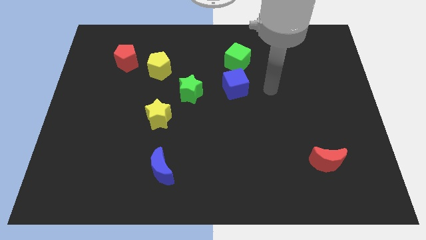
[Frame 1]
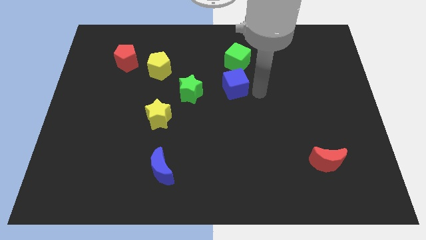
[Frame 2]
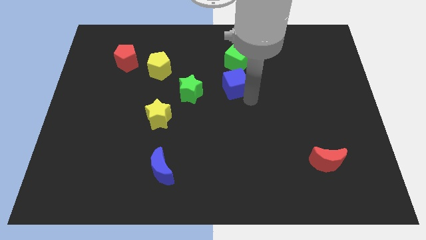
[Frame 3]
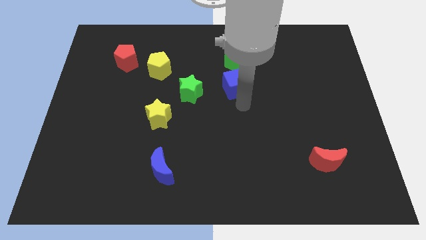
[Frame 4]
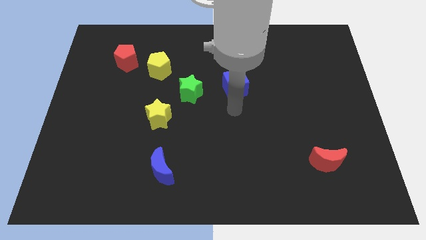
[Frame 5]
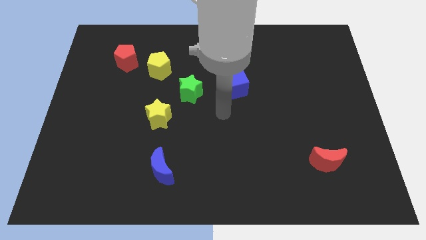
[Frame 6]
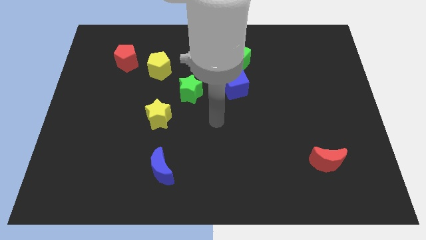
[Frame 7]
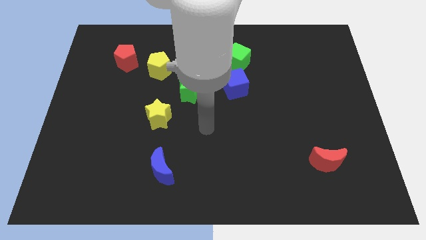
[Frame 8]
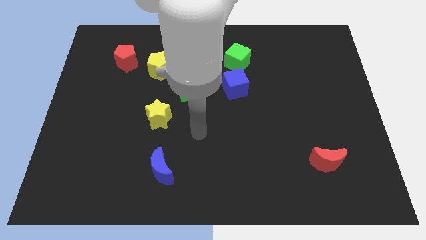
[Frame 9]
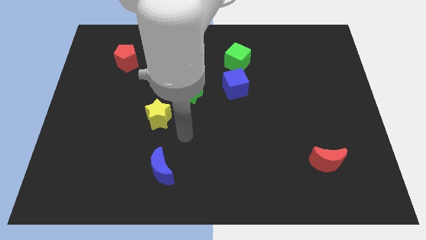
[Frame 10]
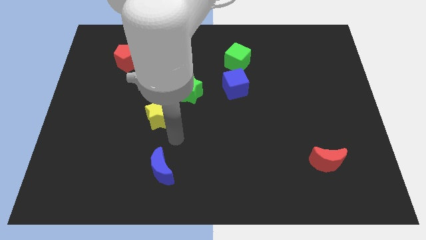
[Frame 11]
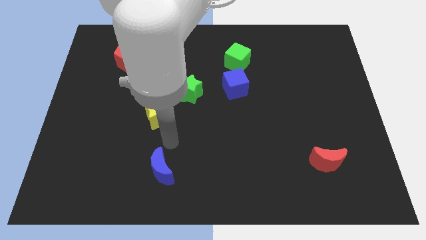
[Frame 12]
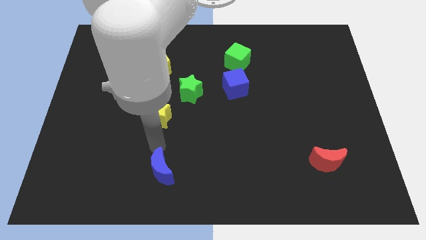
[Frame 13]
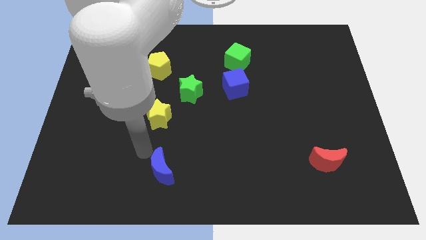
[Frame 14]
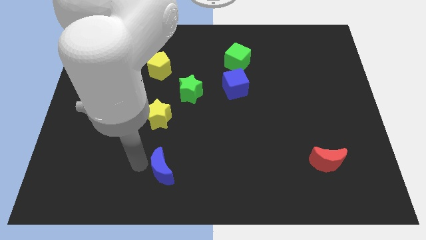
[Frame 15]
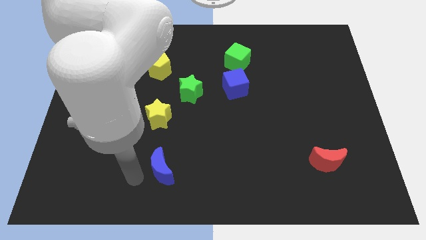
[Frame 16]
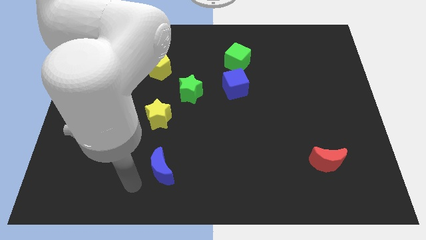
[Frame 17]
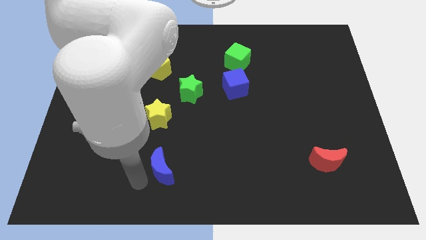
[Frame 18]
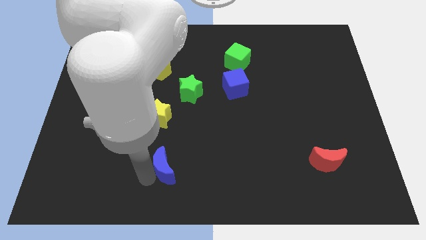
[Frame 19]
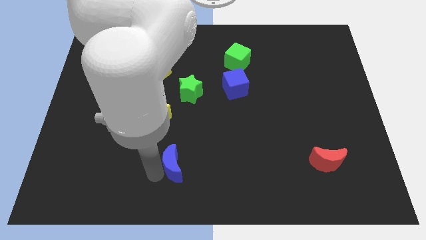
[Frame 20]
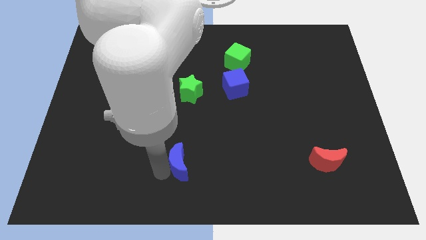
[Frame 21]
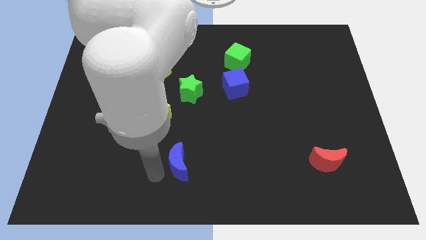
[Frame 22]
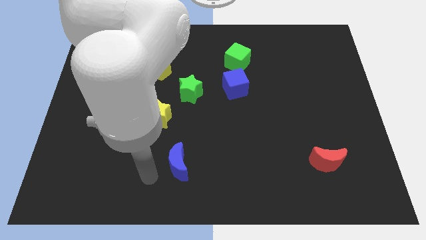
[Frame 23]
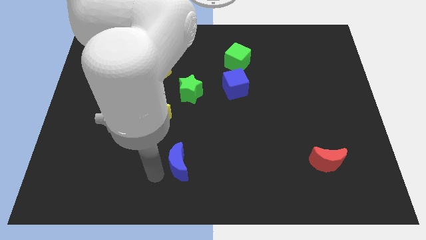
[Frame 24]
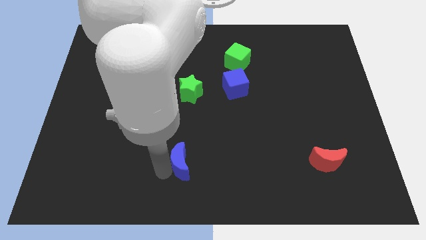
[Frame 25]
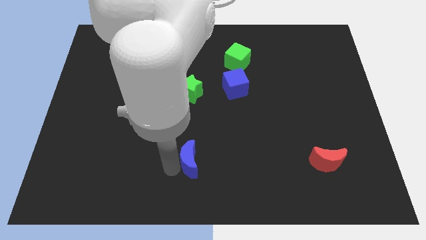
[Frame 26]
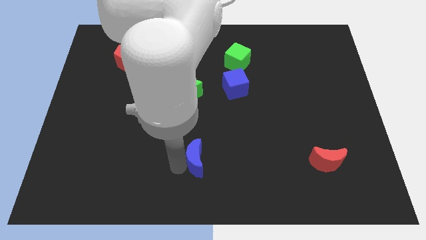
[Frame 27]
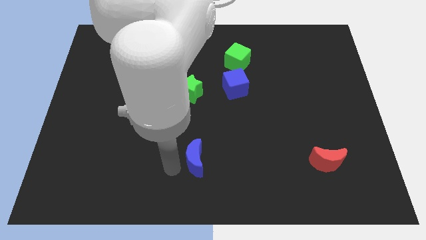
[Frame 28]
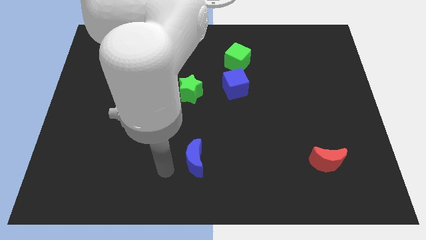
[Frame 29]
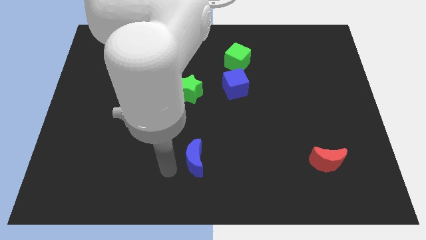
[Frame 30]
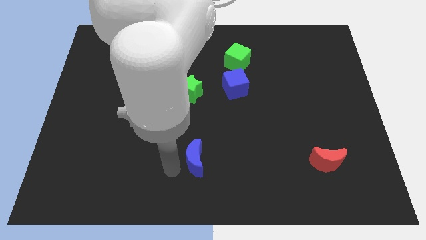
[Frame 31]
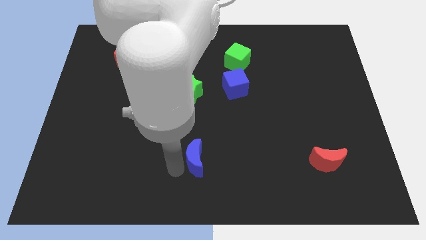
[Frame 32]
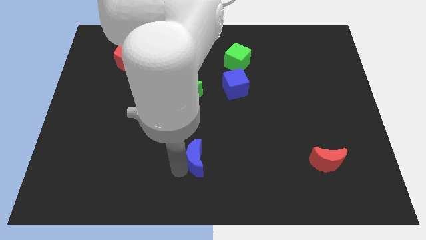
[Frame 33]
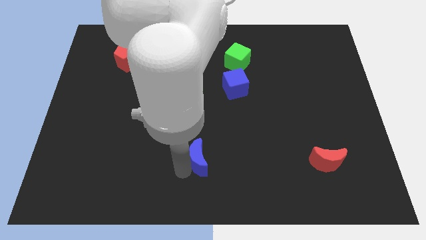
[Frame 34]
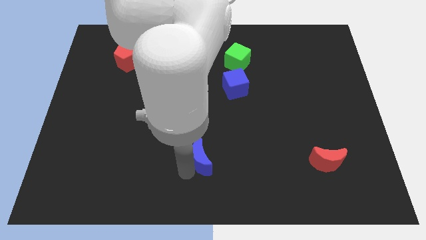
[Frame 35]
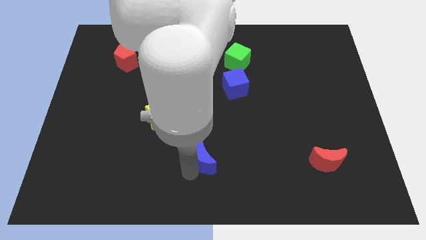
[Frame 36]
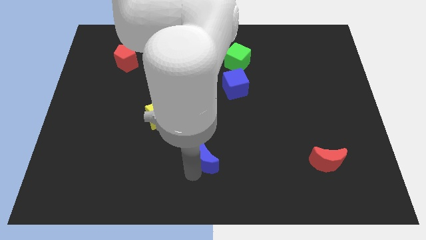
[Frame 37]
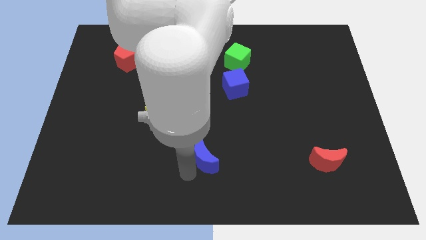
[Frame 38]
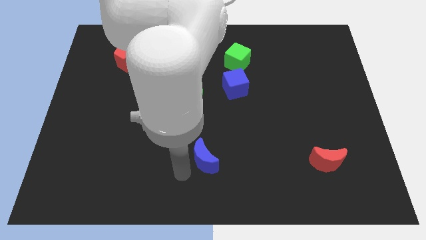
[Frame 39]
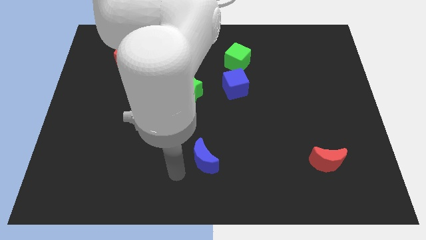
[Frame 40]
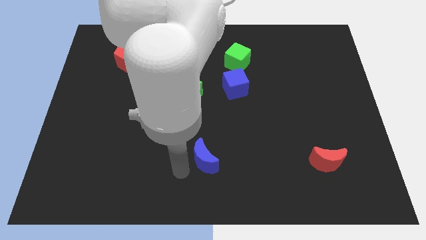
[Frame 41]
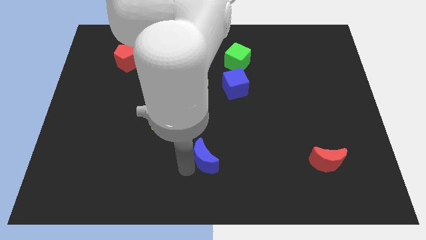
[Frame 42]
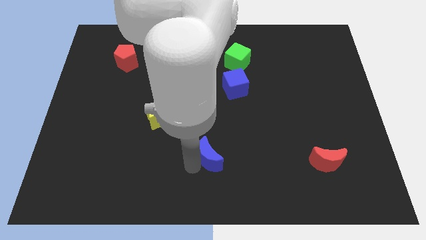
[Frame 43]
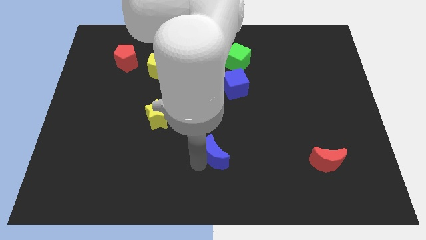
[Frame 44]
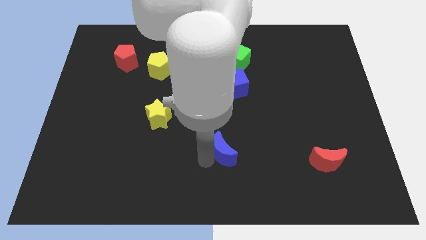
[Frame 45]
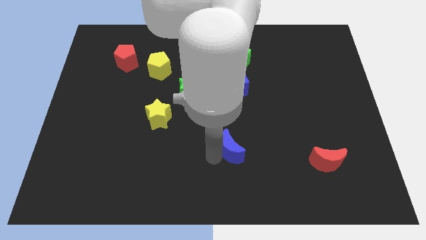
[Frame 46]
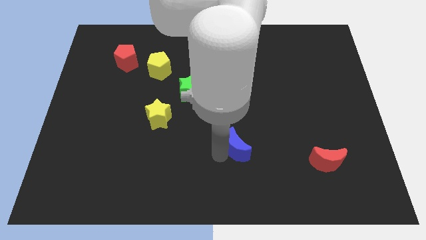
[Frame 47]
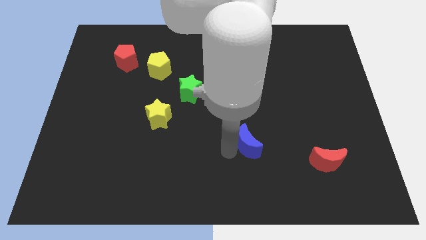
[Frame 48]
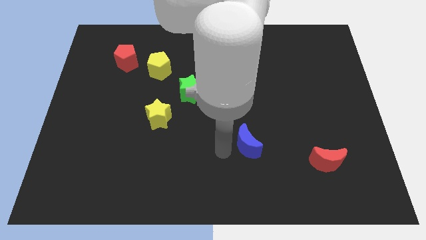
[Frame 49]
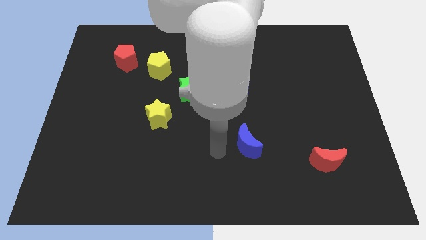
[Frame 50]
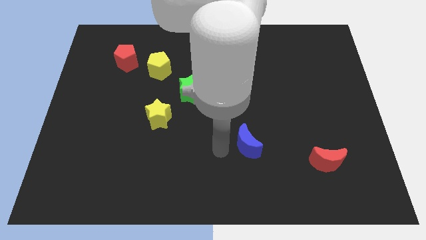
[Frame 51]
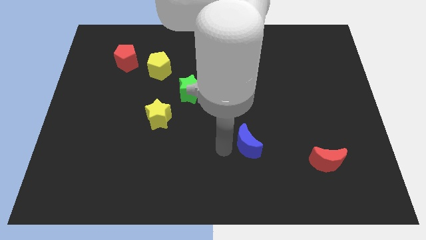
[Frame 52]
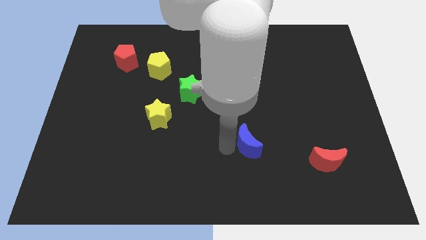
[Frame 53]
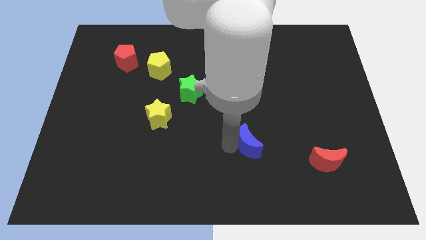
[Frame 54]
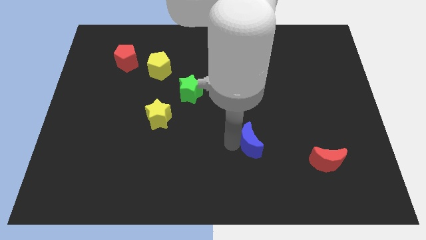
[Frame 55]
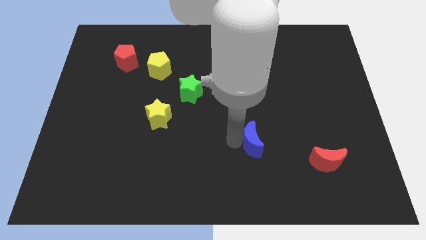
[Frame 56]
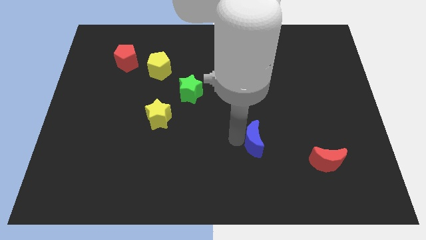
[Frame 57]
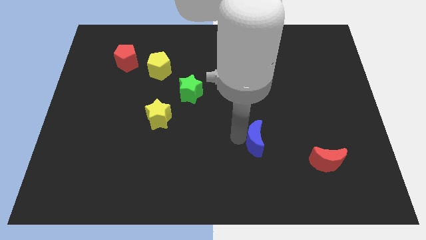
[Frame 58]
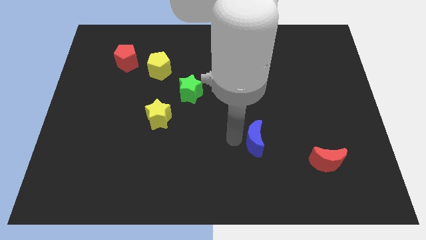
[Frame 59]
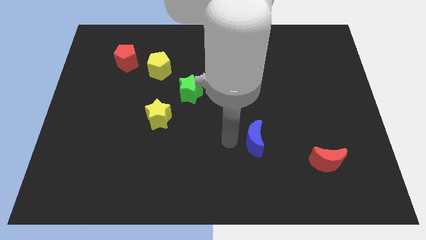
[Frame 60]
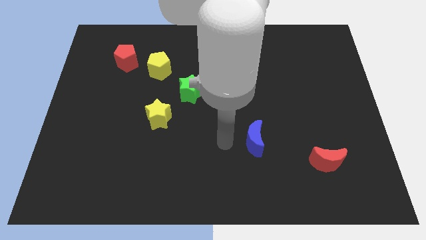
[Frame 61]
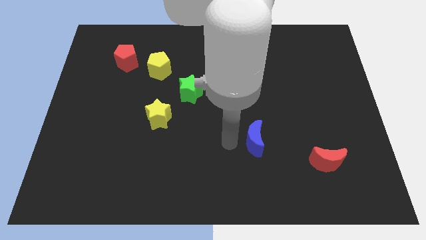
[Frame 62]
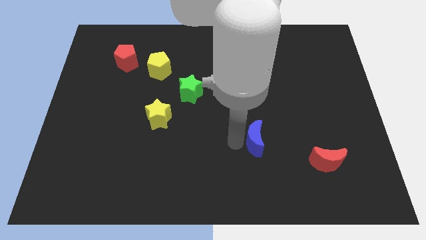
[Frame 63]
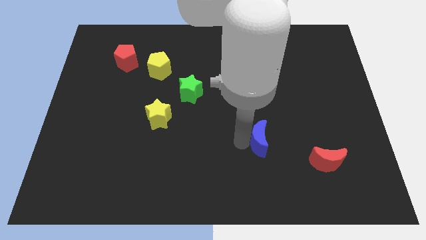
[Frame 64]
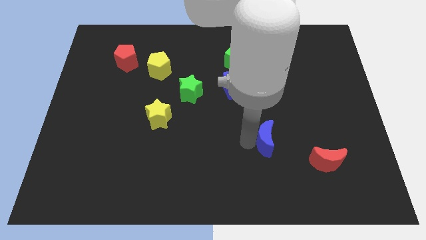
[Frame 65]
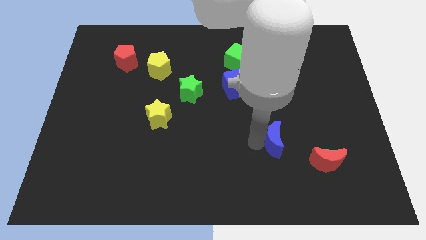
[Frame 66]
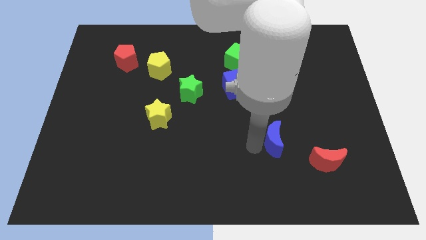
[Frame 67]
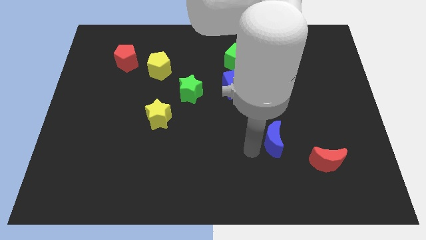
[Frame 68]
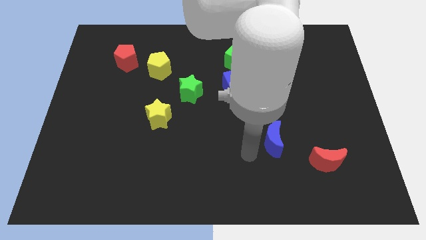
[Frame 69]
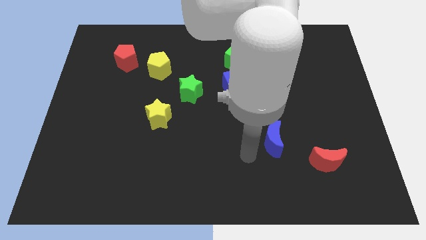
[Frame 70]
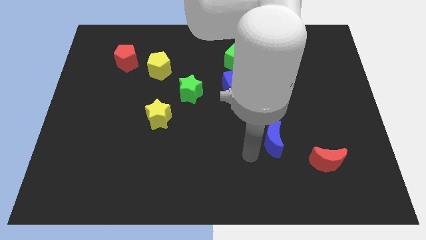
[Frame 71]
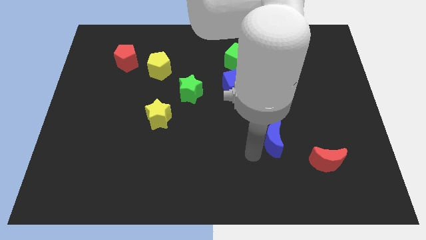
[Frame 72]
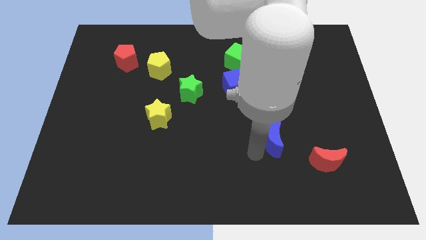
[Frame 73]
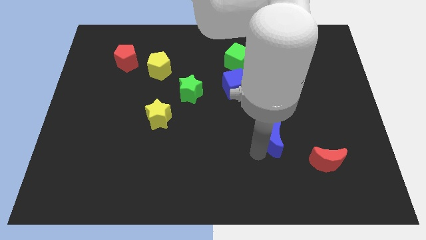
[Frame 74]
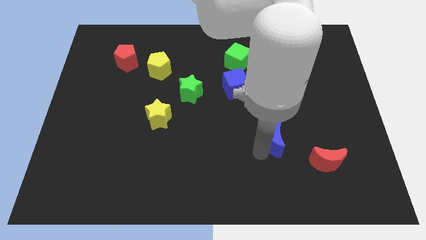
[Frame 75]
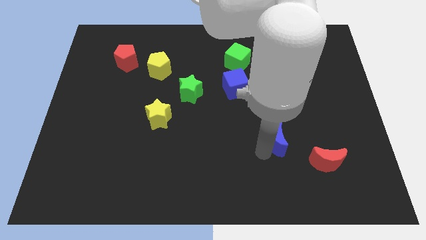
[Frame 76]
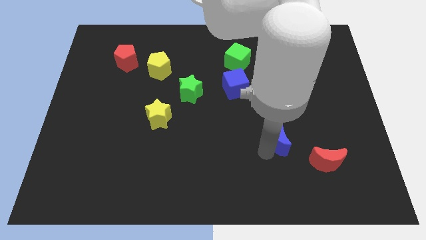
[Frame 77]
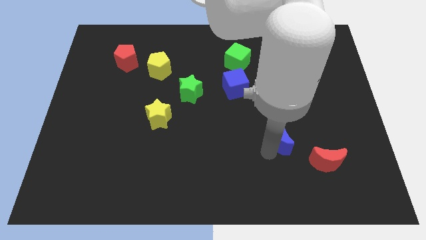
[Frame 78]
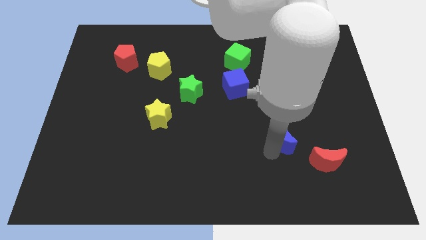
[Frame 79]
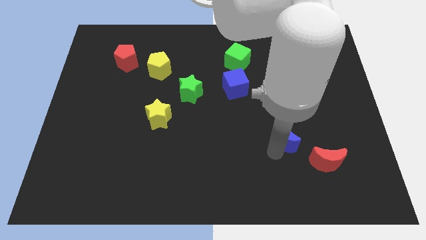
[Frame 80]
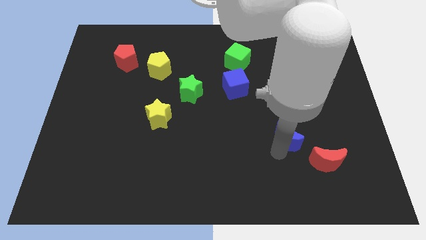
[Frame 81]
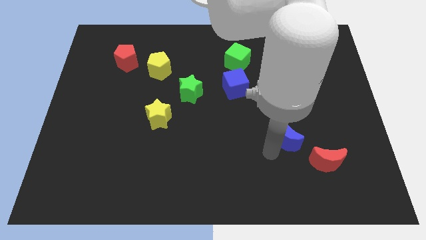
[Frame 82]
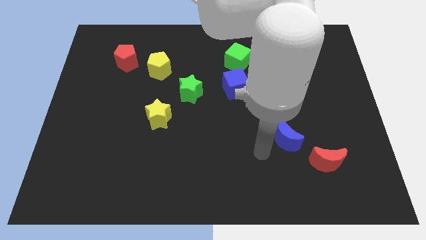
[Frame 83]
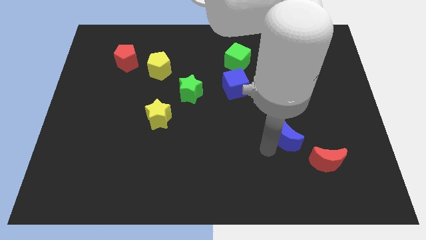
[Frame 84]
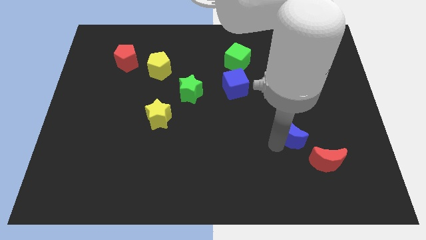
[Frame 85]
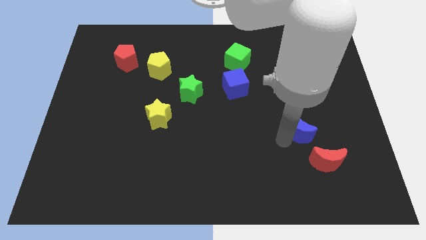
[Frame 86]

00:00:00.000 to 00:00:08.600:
move the blue moon above the red moon
